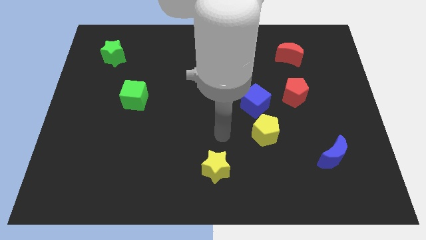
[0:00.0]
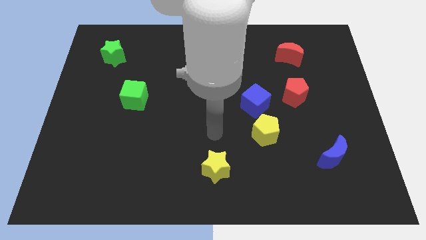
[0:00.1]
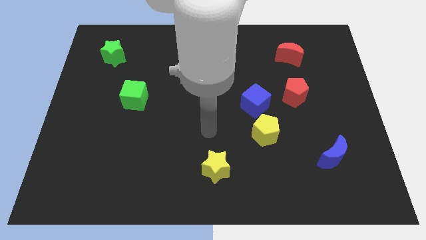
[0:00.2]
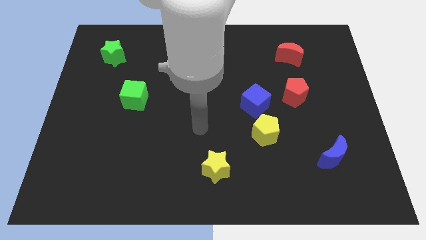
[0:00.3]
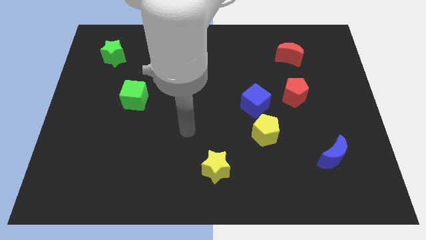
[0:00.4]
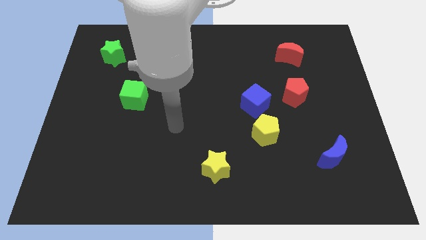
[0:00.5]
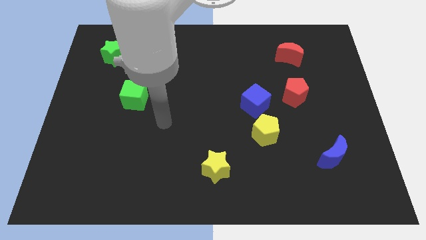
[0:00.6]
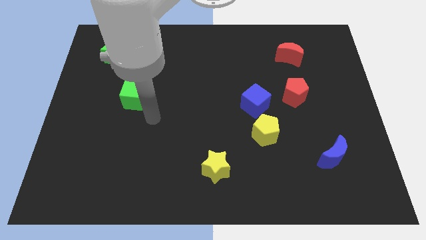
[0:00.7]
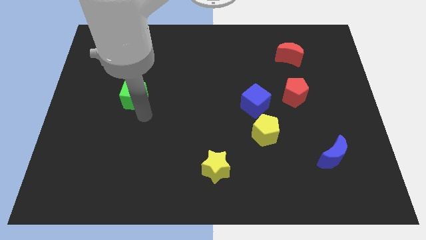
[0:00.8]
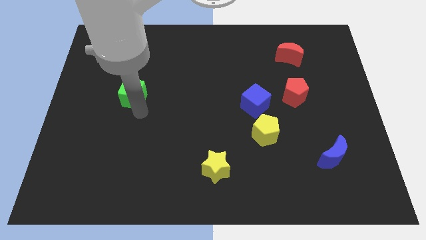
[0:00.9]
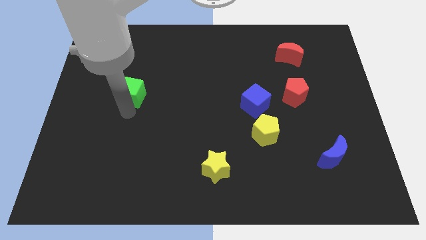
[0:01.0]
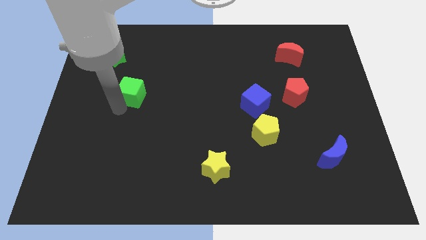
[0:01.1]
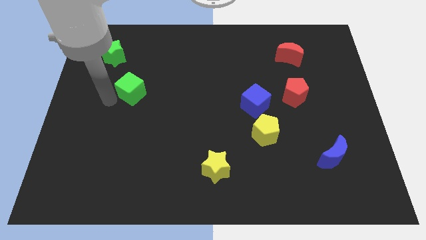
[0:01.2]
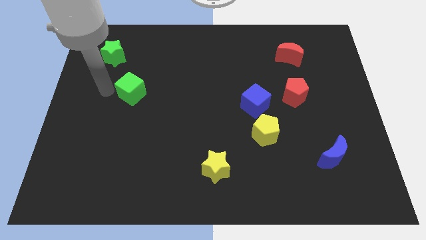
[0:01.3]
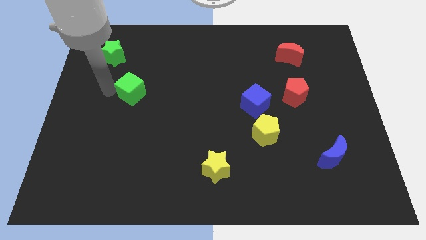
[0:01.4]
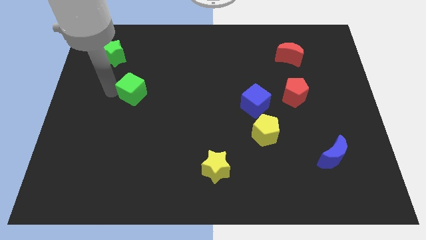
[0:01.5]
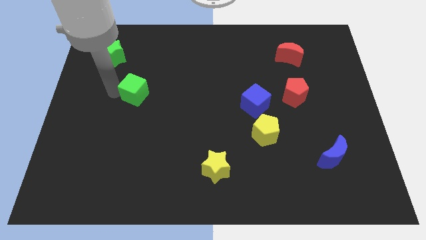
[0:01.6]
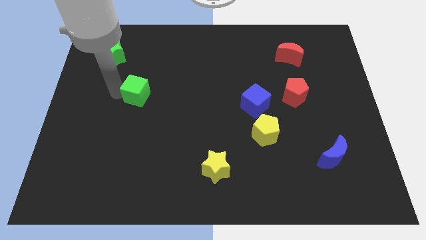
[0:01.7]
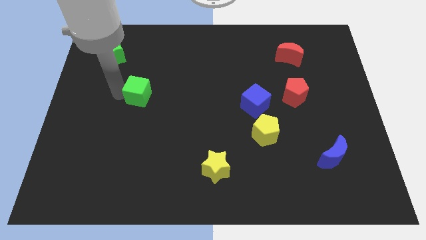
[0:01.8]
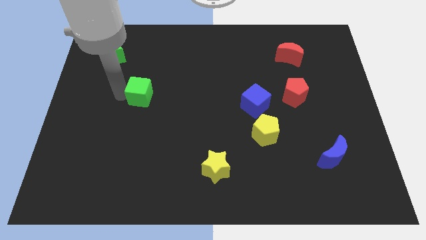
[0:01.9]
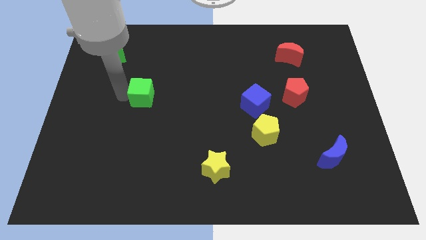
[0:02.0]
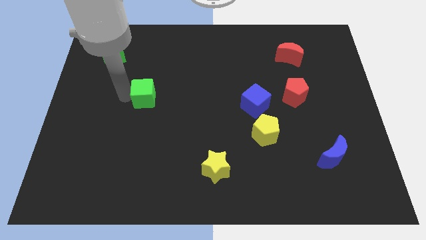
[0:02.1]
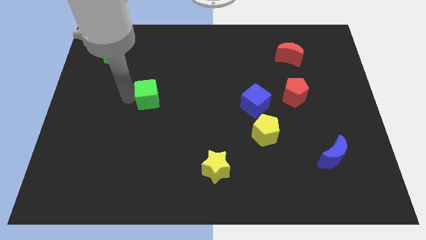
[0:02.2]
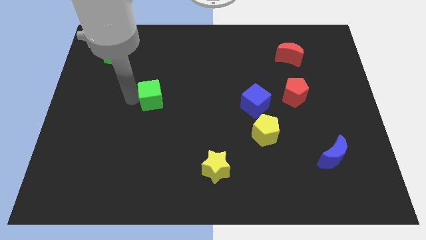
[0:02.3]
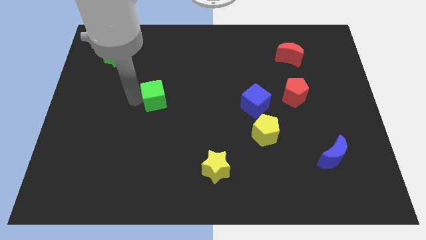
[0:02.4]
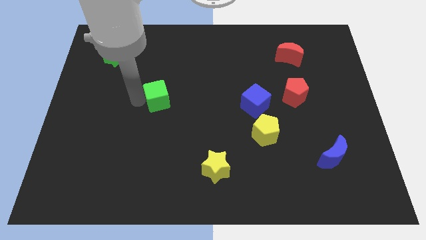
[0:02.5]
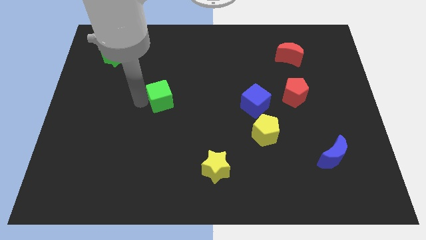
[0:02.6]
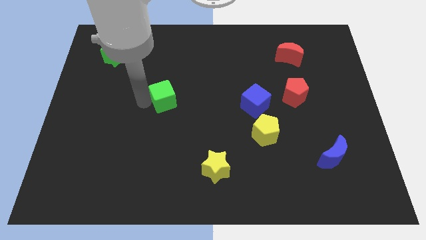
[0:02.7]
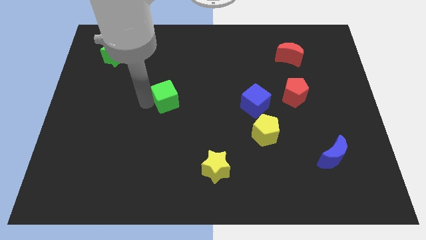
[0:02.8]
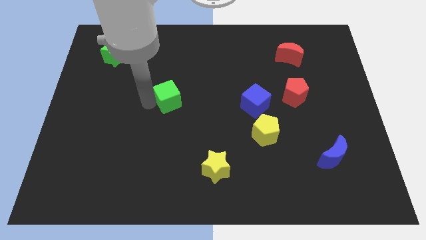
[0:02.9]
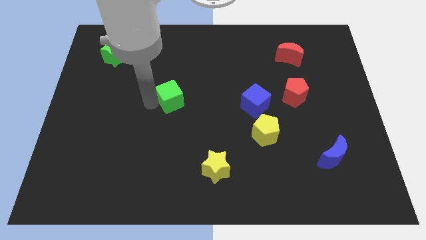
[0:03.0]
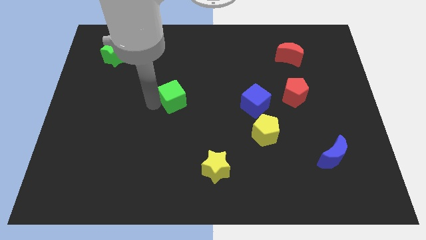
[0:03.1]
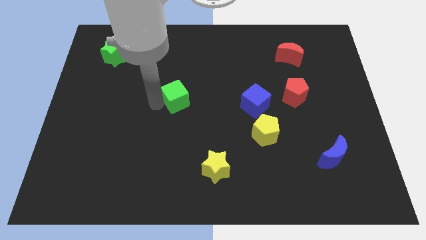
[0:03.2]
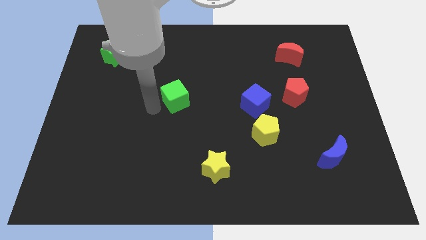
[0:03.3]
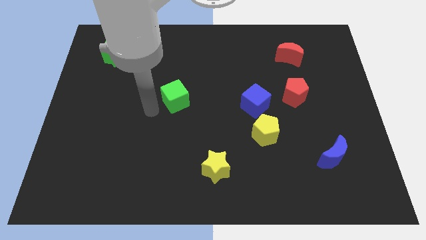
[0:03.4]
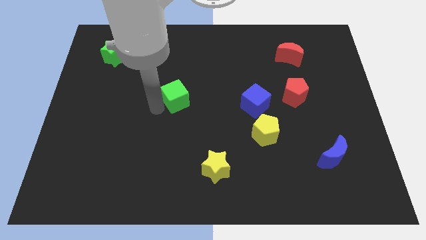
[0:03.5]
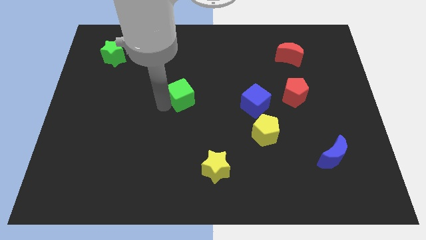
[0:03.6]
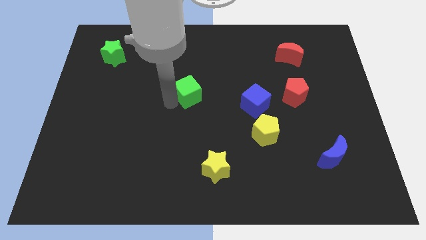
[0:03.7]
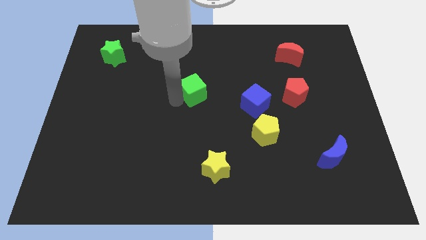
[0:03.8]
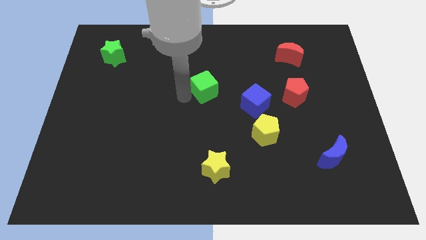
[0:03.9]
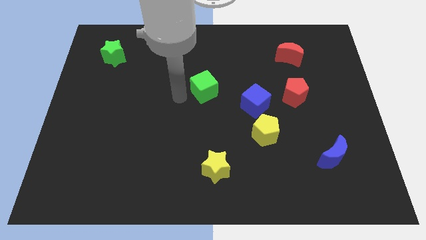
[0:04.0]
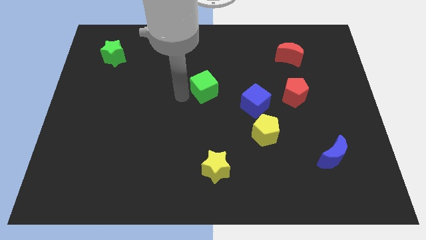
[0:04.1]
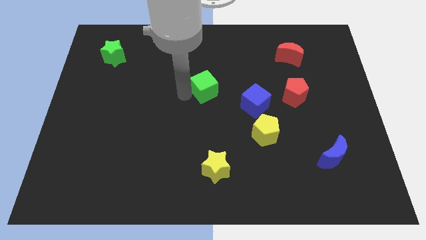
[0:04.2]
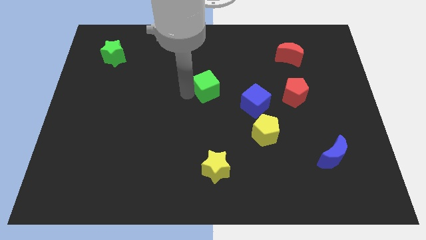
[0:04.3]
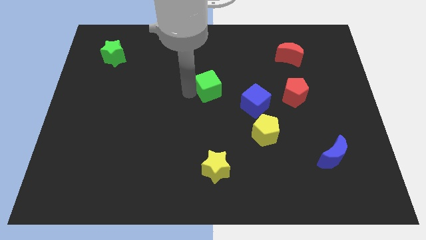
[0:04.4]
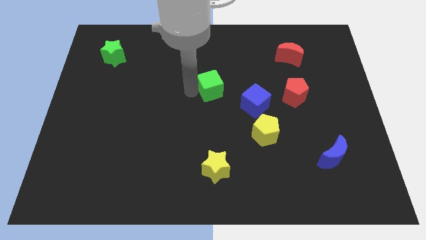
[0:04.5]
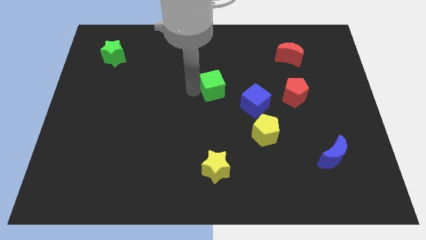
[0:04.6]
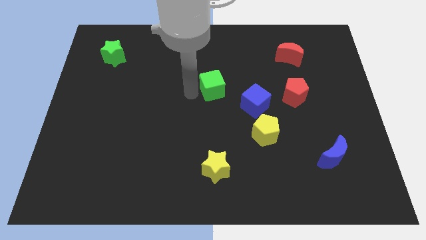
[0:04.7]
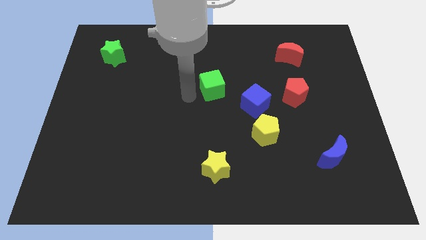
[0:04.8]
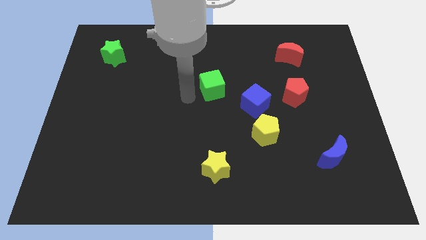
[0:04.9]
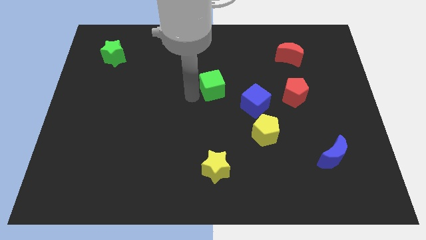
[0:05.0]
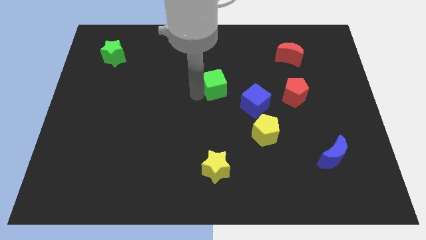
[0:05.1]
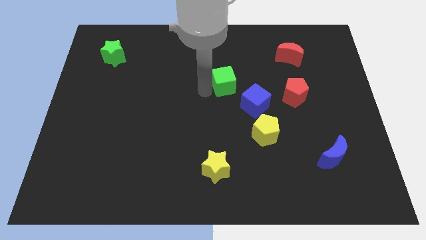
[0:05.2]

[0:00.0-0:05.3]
move the green cube to the right

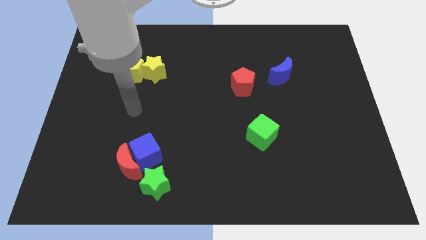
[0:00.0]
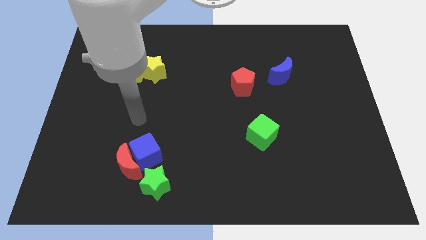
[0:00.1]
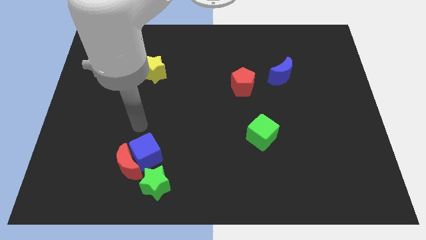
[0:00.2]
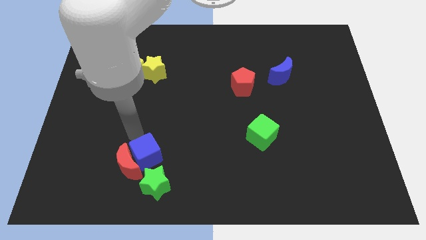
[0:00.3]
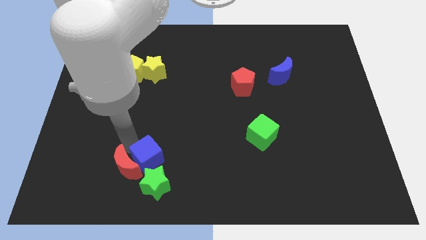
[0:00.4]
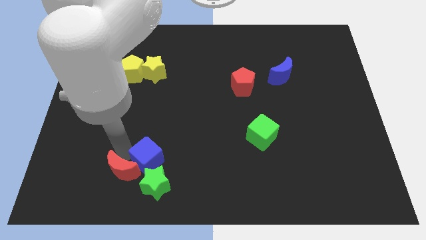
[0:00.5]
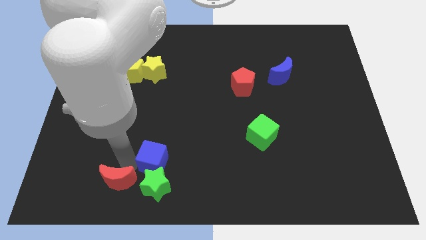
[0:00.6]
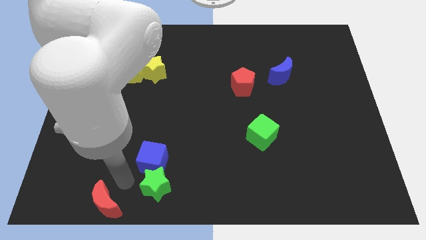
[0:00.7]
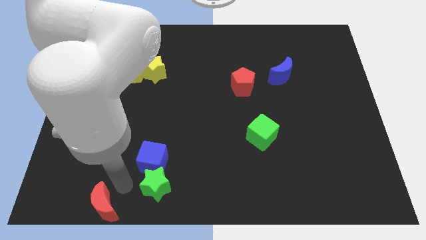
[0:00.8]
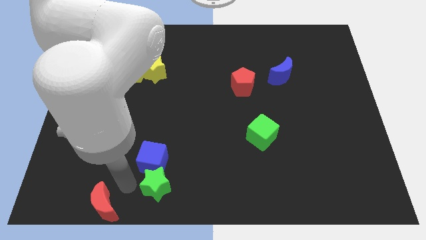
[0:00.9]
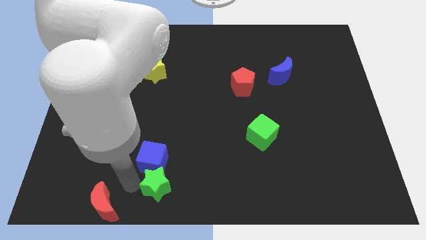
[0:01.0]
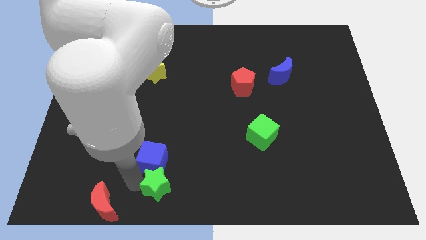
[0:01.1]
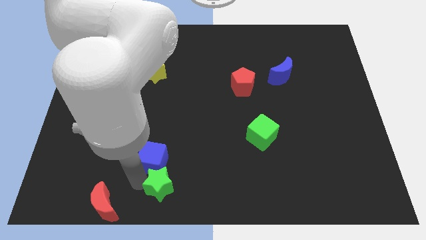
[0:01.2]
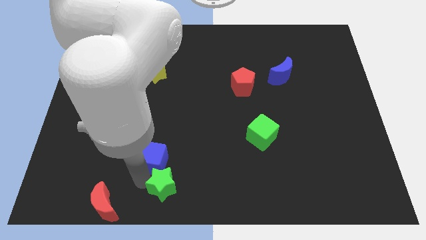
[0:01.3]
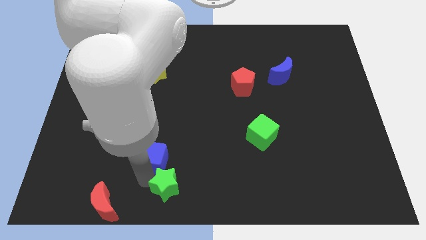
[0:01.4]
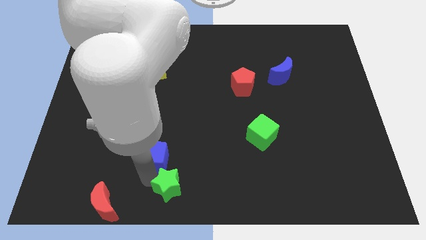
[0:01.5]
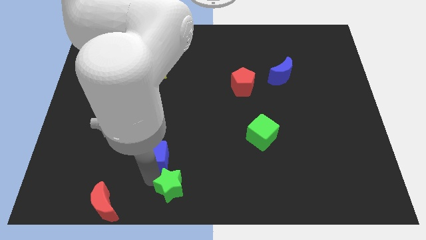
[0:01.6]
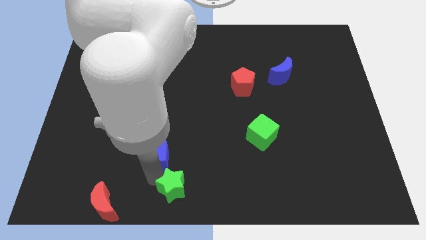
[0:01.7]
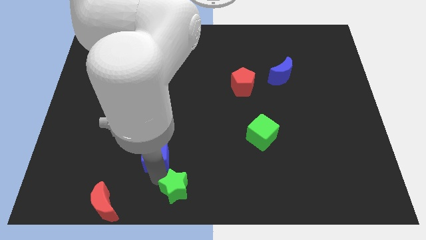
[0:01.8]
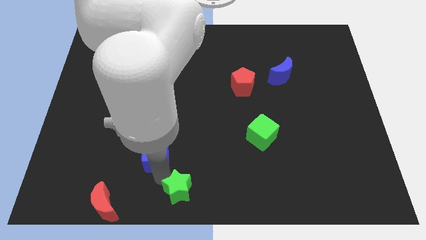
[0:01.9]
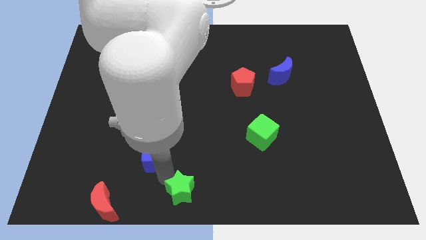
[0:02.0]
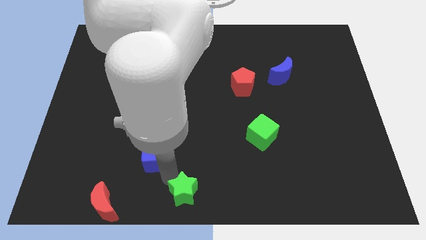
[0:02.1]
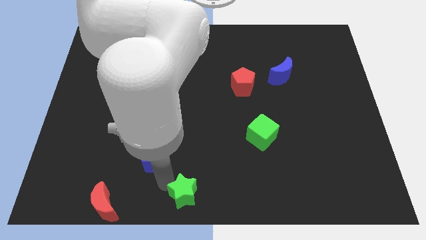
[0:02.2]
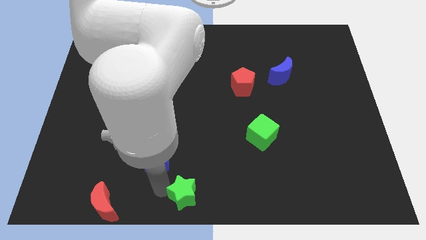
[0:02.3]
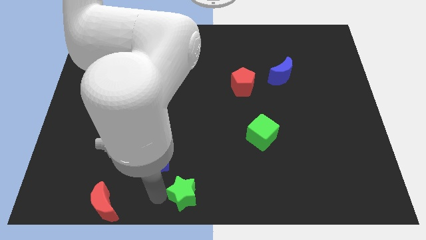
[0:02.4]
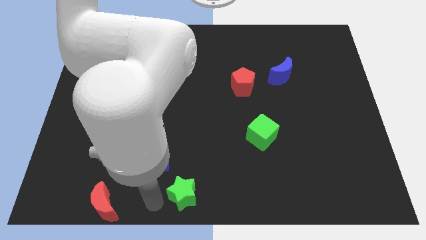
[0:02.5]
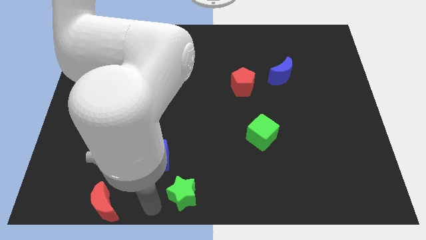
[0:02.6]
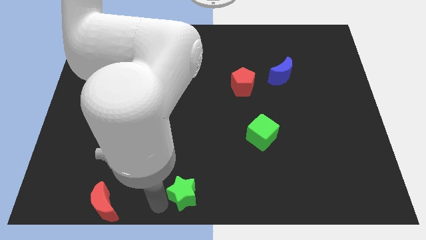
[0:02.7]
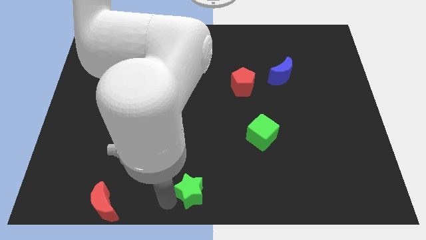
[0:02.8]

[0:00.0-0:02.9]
move the green star right a little bit
